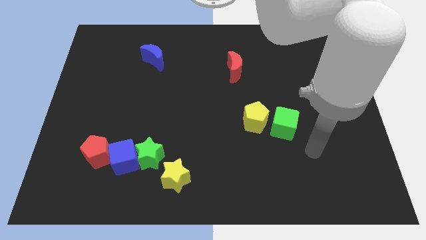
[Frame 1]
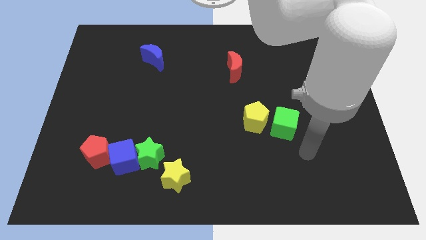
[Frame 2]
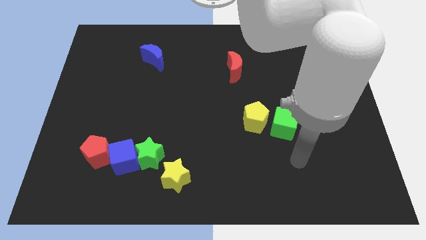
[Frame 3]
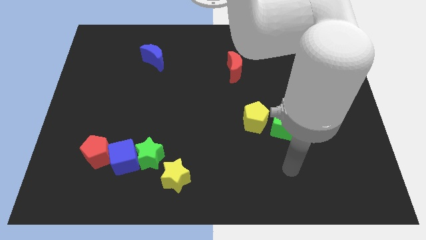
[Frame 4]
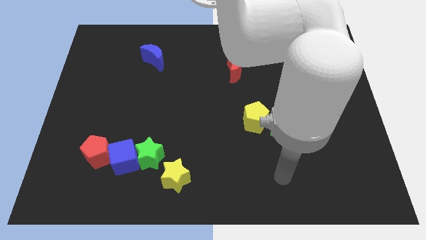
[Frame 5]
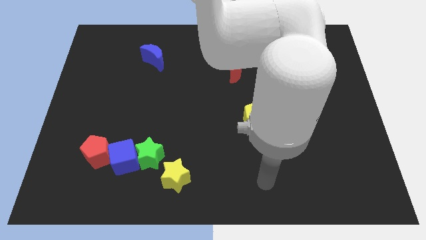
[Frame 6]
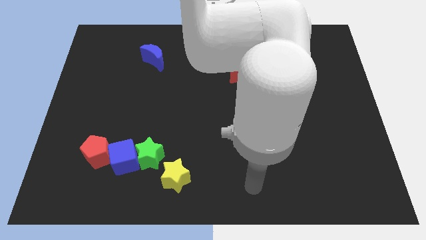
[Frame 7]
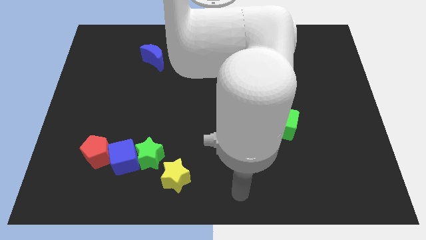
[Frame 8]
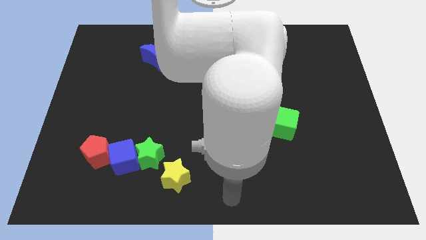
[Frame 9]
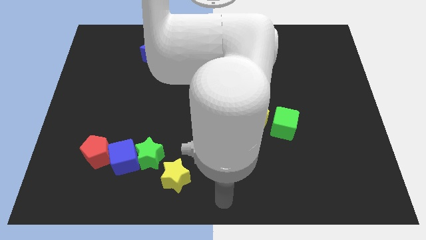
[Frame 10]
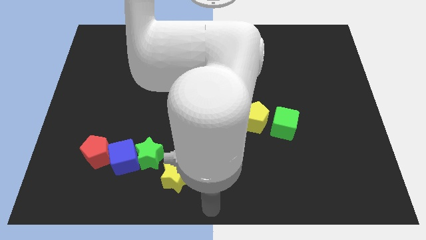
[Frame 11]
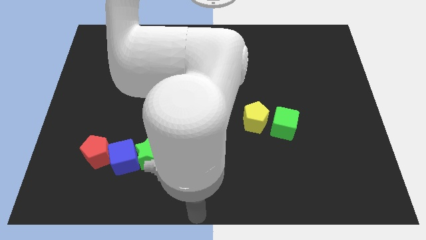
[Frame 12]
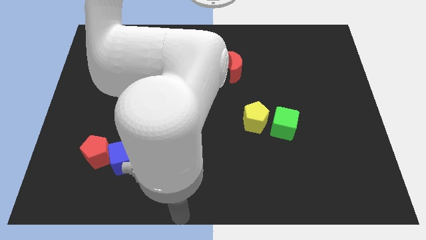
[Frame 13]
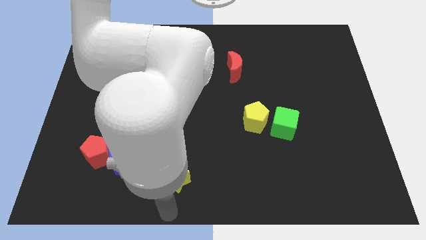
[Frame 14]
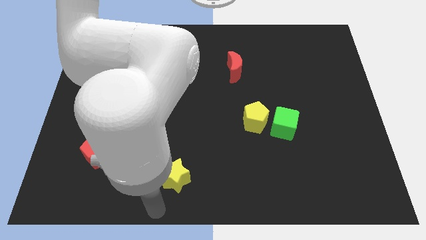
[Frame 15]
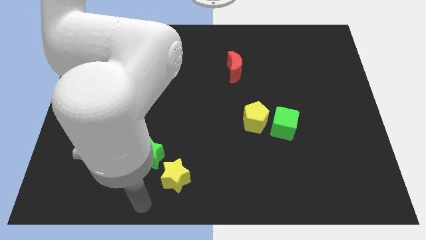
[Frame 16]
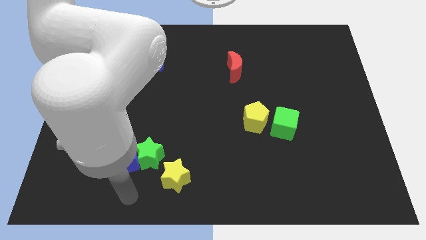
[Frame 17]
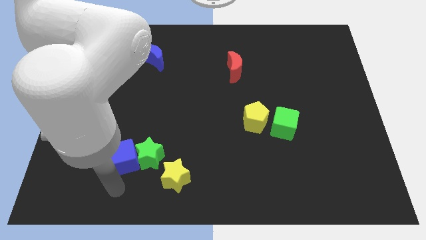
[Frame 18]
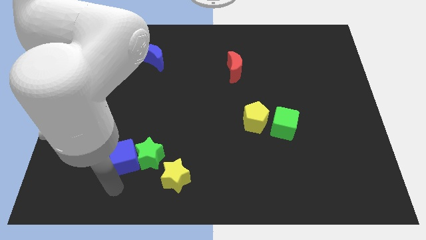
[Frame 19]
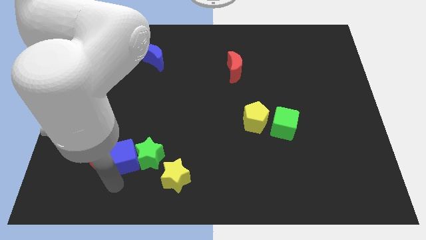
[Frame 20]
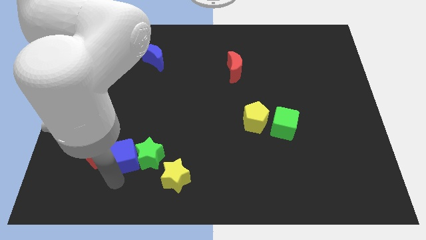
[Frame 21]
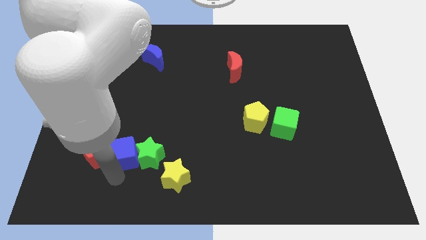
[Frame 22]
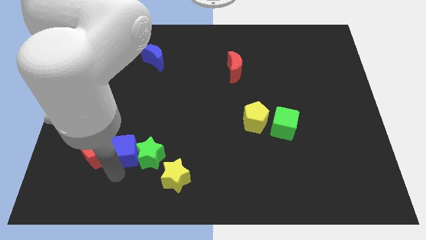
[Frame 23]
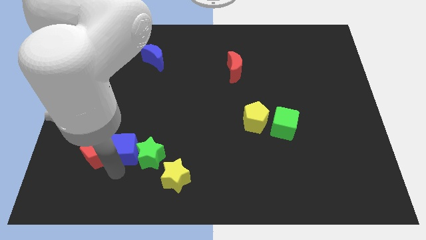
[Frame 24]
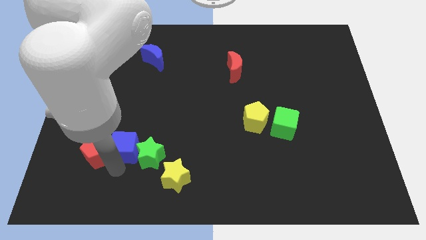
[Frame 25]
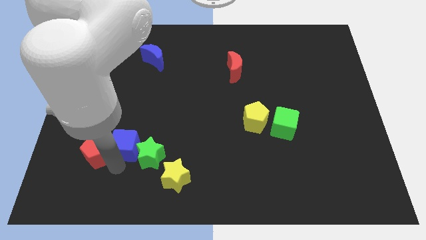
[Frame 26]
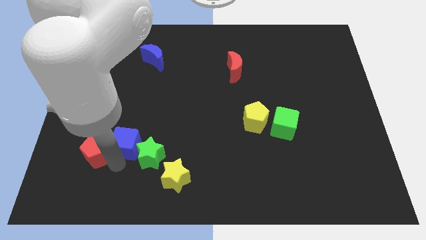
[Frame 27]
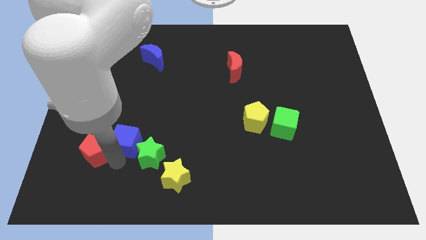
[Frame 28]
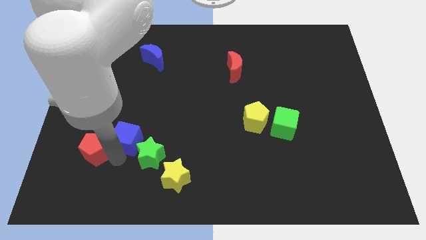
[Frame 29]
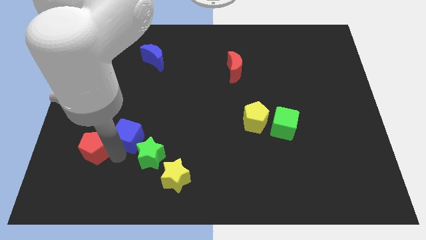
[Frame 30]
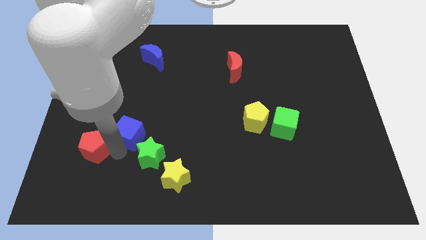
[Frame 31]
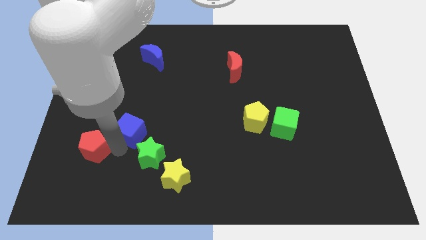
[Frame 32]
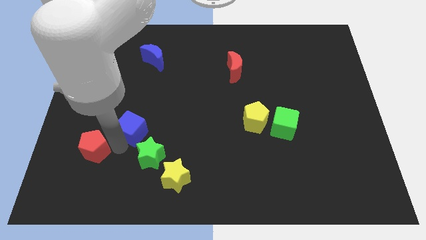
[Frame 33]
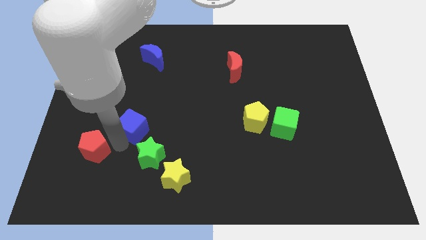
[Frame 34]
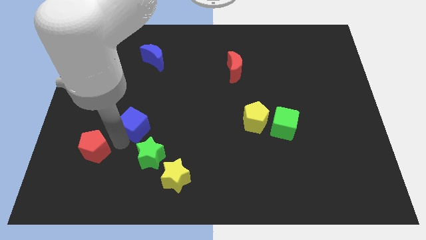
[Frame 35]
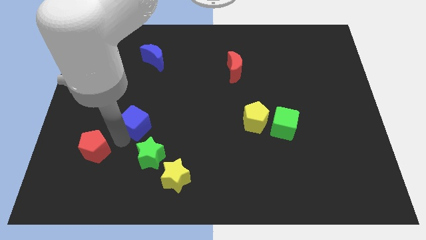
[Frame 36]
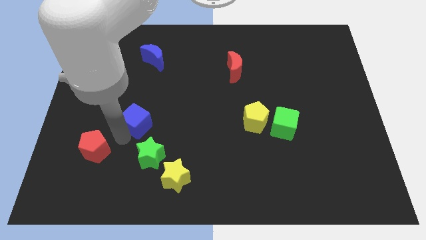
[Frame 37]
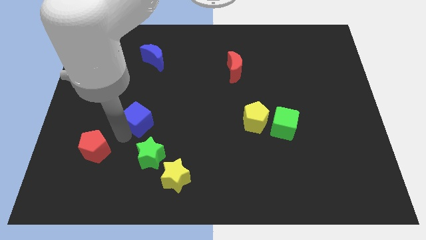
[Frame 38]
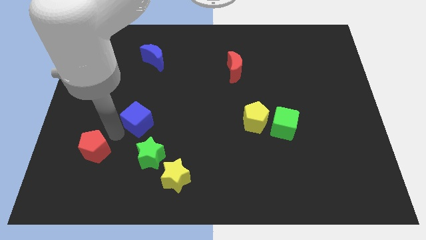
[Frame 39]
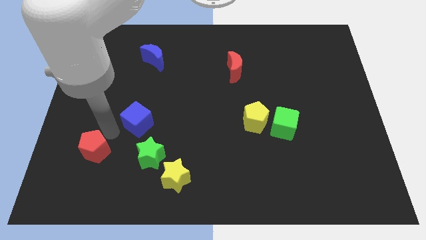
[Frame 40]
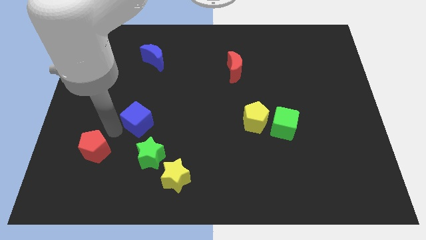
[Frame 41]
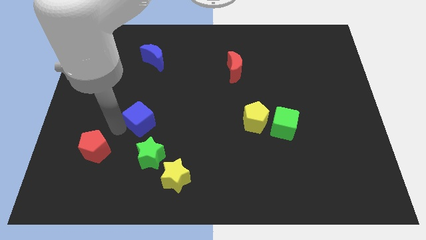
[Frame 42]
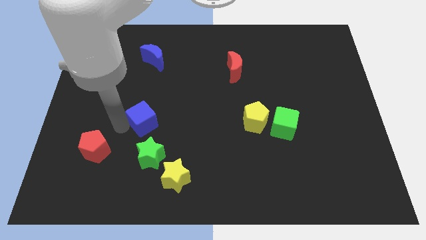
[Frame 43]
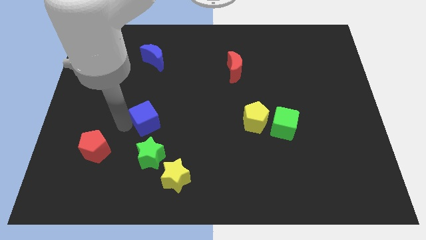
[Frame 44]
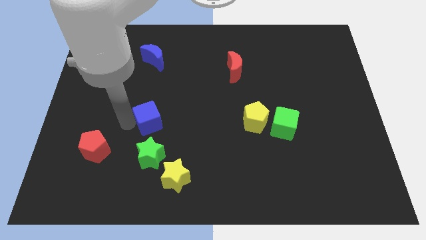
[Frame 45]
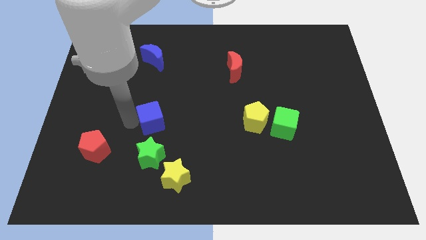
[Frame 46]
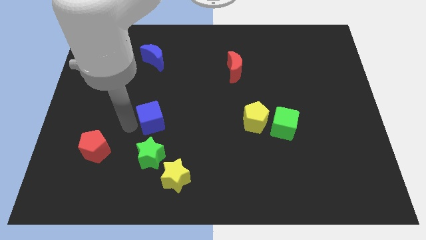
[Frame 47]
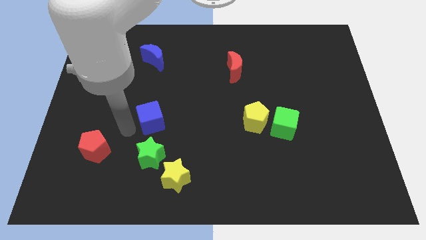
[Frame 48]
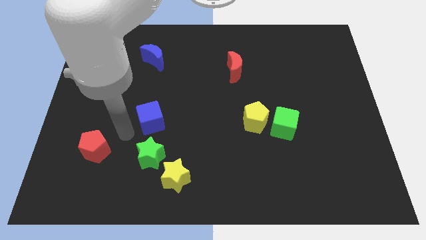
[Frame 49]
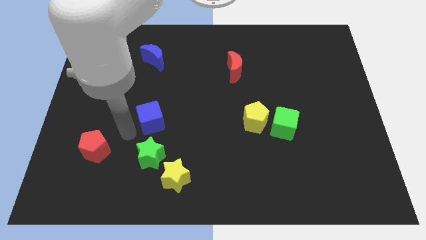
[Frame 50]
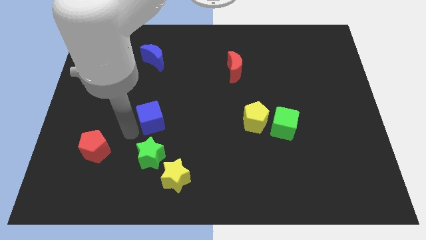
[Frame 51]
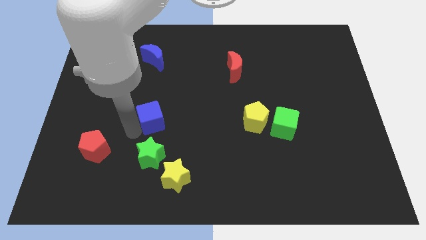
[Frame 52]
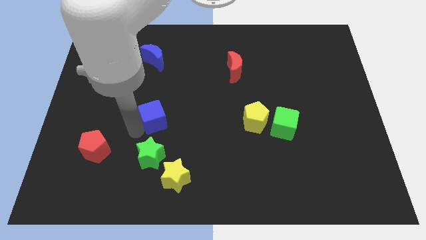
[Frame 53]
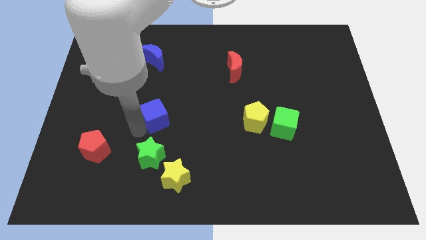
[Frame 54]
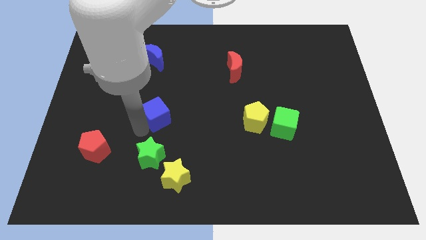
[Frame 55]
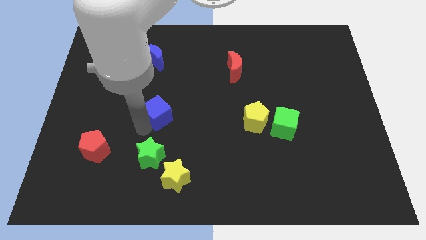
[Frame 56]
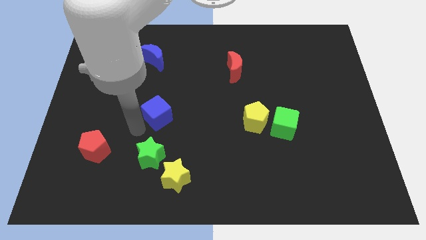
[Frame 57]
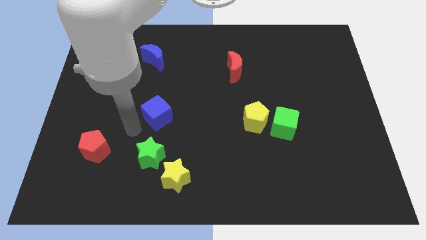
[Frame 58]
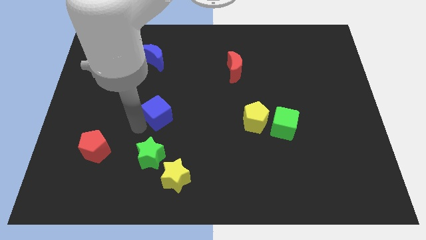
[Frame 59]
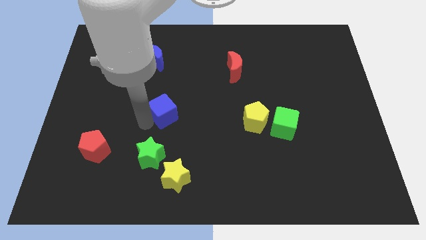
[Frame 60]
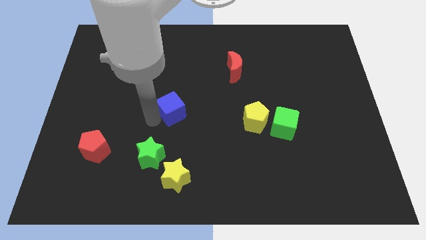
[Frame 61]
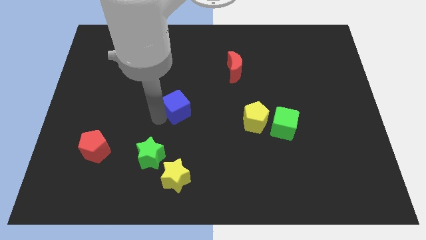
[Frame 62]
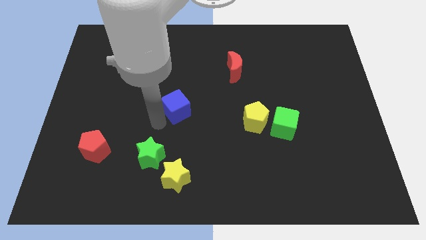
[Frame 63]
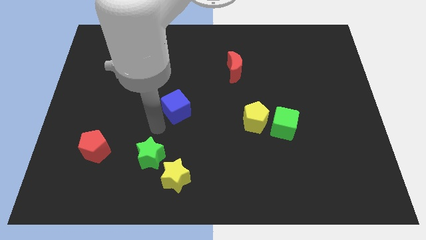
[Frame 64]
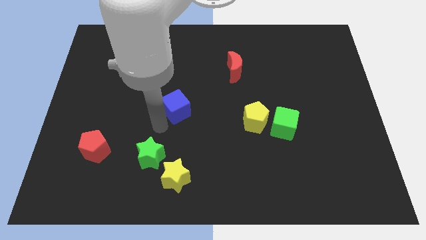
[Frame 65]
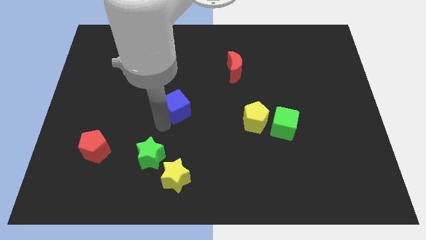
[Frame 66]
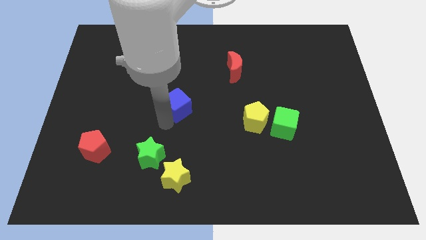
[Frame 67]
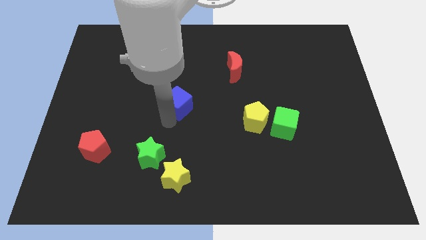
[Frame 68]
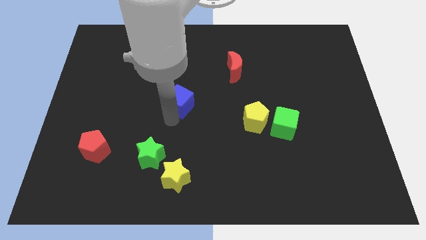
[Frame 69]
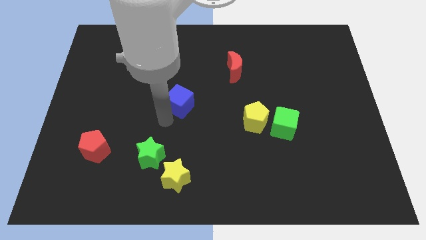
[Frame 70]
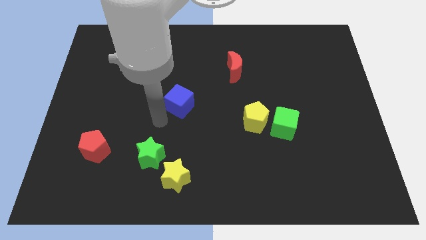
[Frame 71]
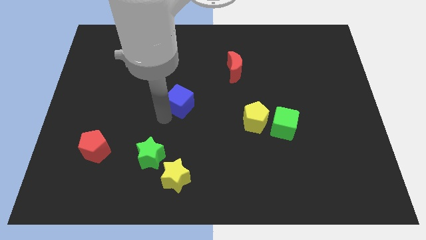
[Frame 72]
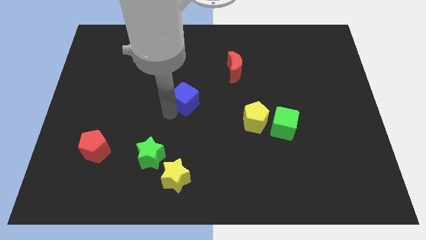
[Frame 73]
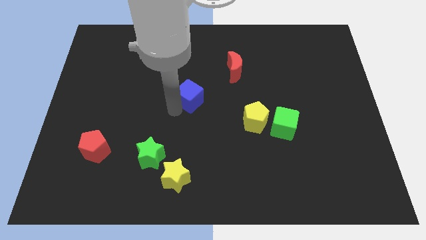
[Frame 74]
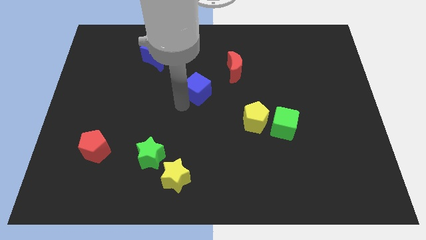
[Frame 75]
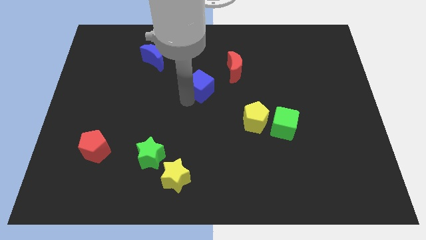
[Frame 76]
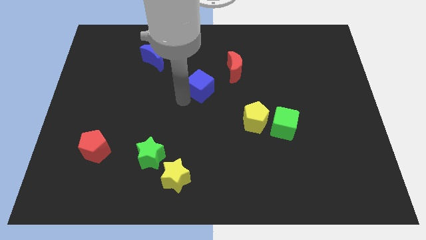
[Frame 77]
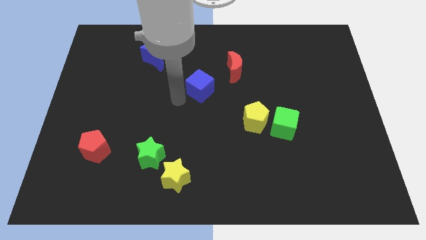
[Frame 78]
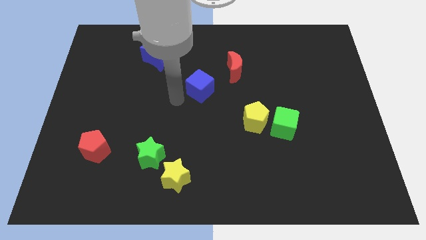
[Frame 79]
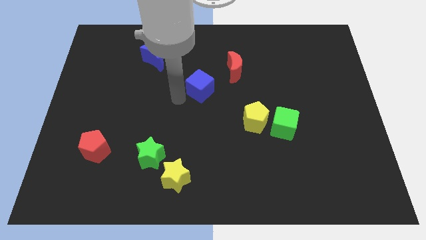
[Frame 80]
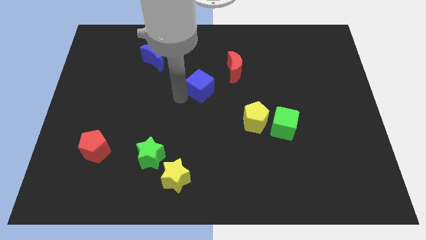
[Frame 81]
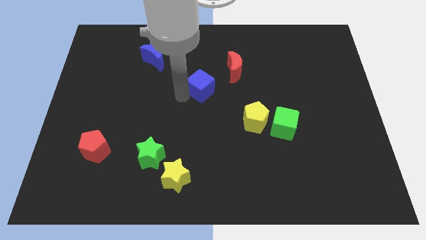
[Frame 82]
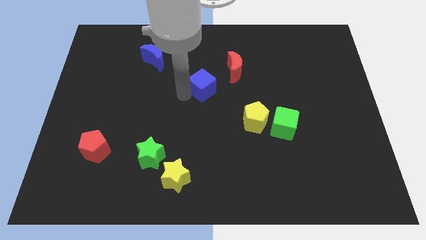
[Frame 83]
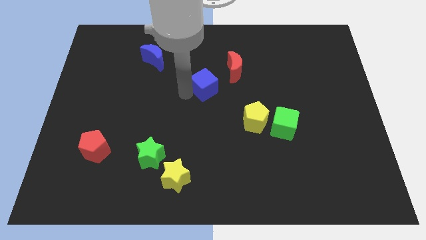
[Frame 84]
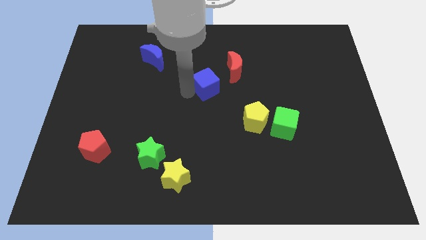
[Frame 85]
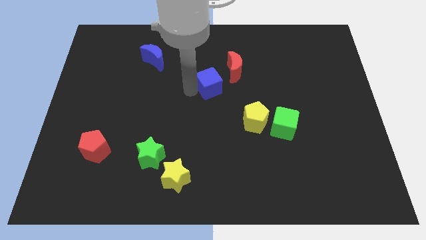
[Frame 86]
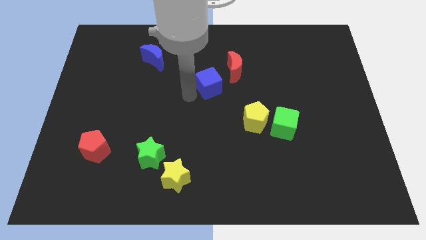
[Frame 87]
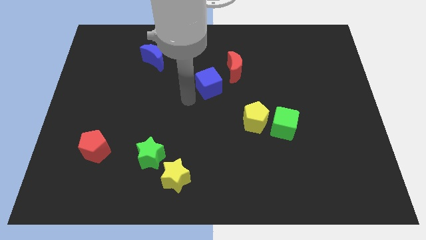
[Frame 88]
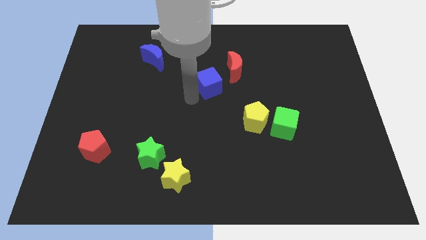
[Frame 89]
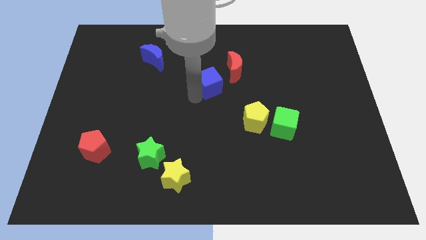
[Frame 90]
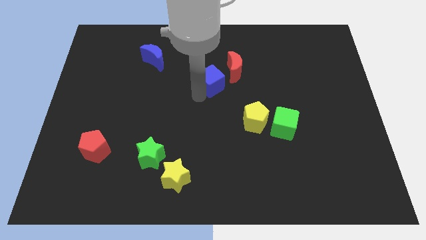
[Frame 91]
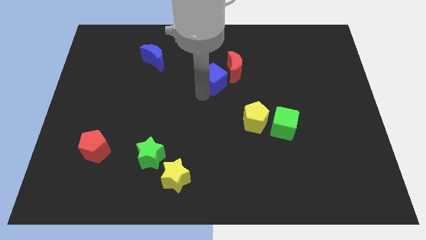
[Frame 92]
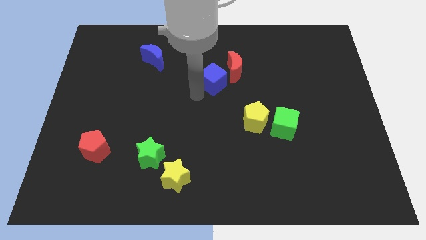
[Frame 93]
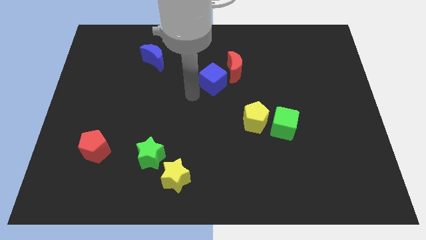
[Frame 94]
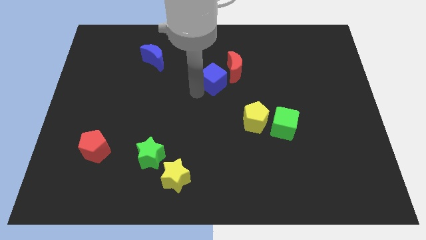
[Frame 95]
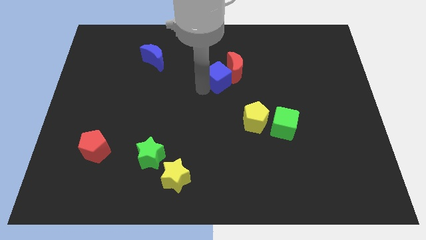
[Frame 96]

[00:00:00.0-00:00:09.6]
put the blue cube towards the red moon
